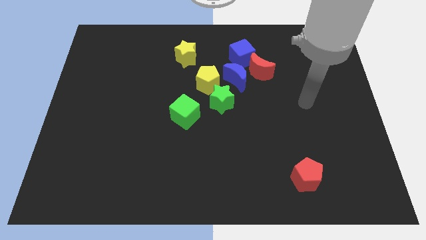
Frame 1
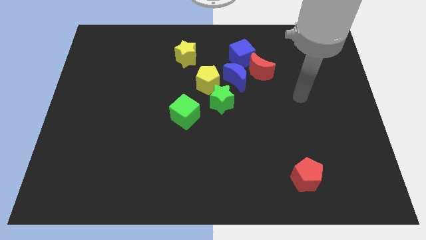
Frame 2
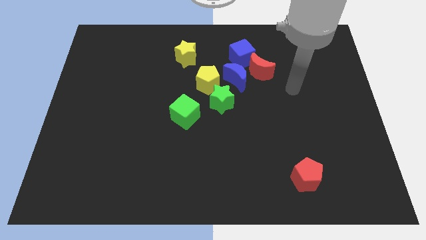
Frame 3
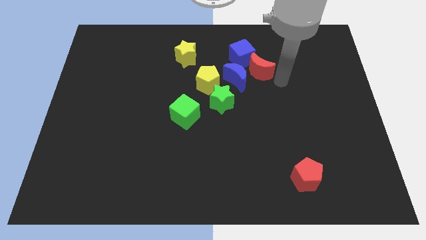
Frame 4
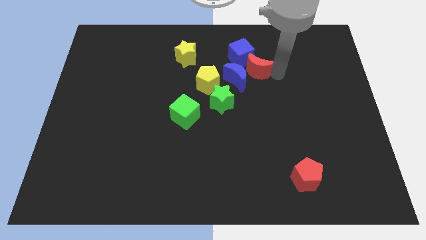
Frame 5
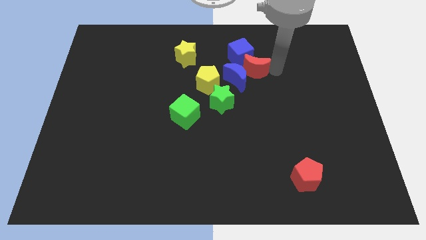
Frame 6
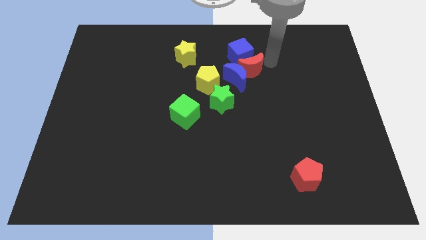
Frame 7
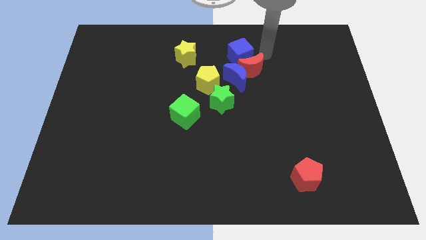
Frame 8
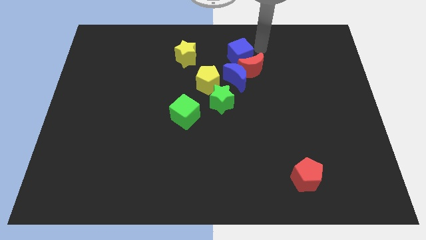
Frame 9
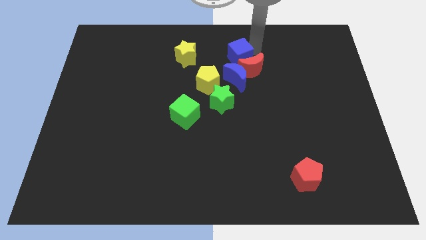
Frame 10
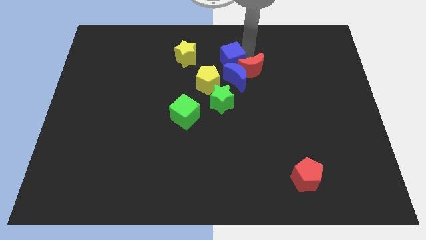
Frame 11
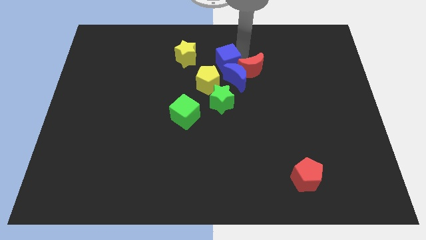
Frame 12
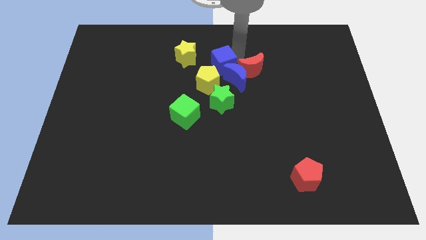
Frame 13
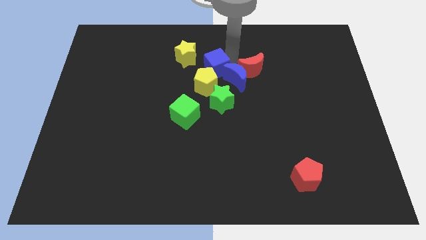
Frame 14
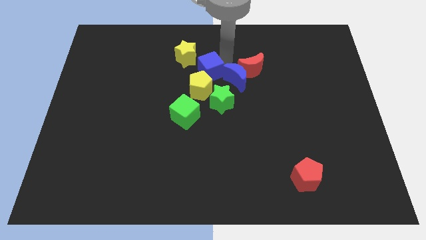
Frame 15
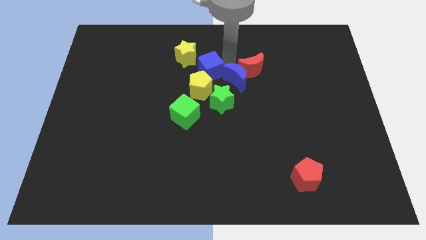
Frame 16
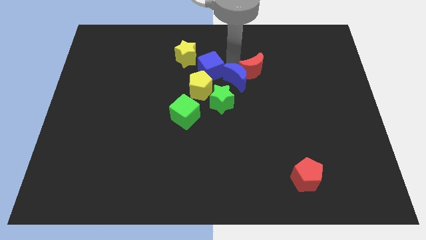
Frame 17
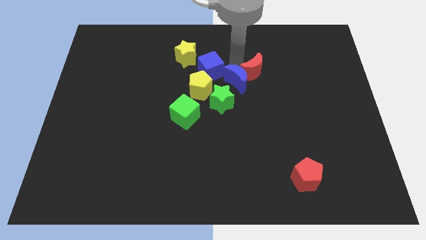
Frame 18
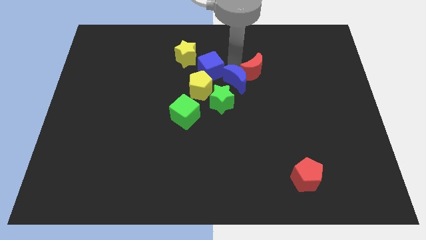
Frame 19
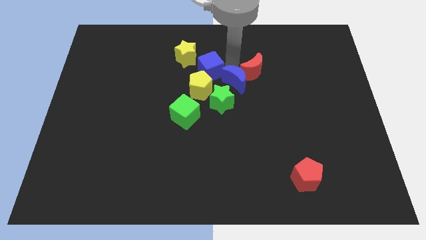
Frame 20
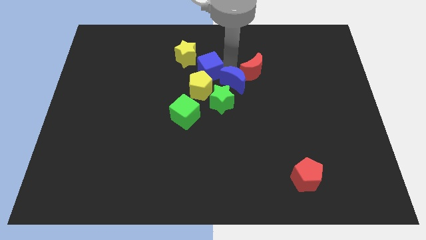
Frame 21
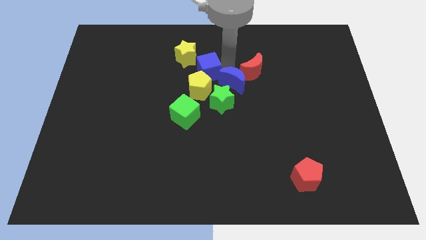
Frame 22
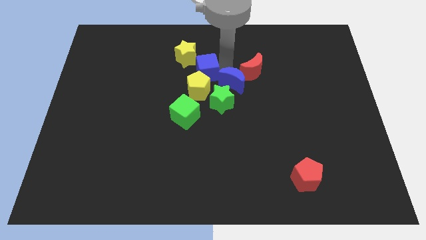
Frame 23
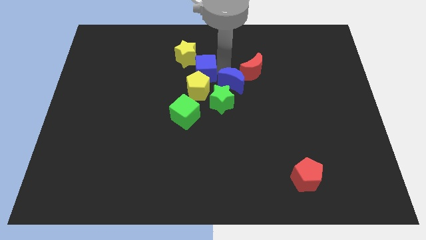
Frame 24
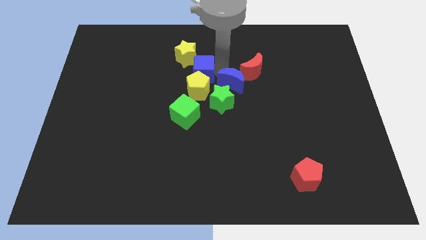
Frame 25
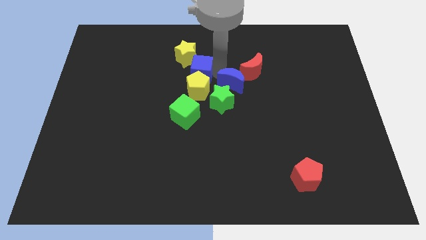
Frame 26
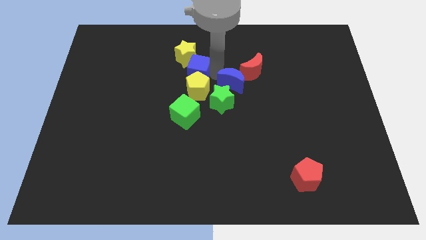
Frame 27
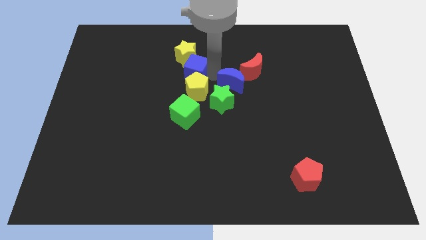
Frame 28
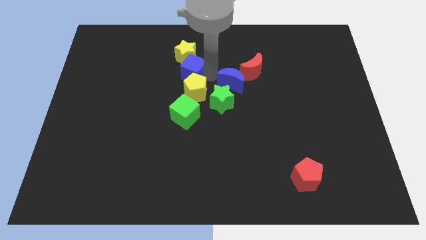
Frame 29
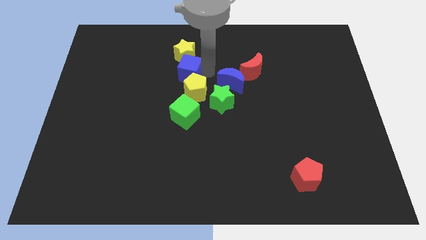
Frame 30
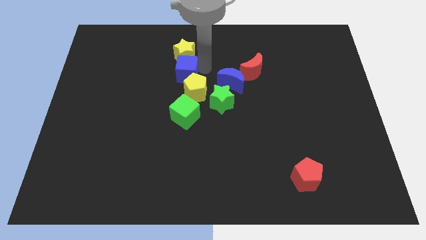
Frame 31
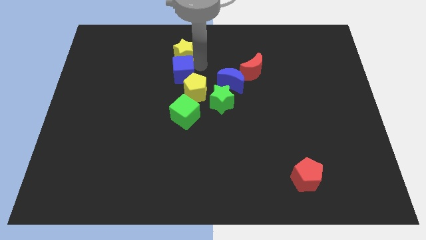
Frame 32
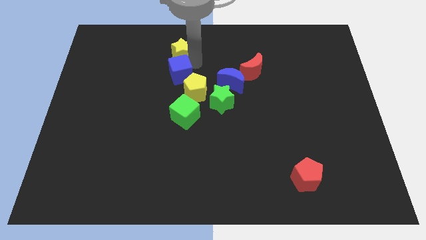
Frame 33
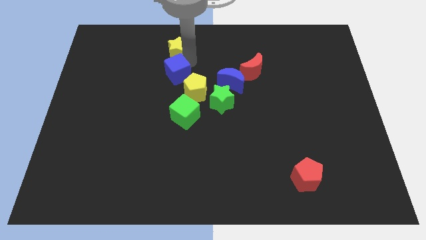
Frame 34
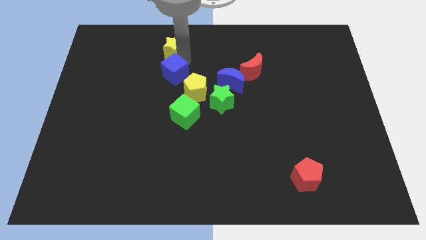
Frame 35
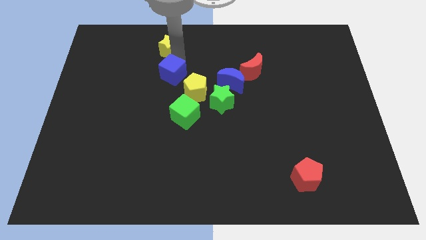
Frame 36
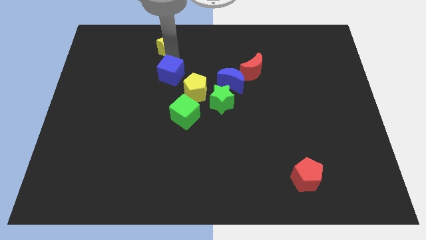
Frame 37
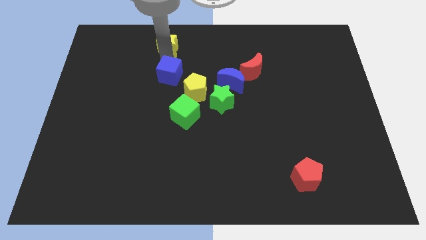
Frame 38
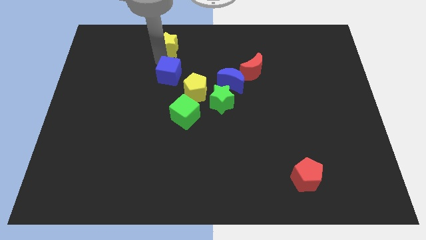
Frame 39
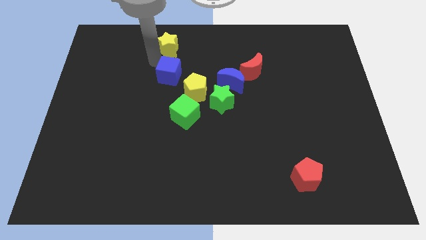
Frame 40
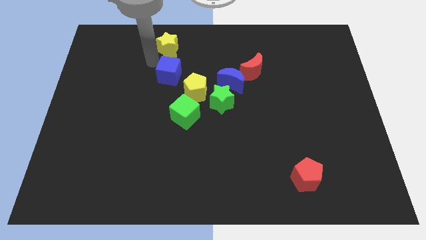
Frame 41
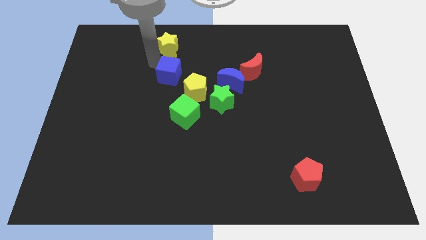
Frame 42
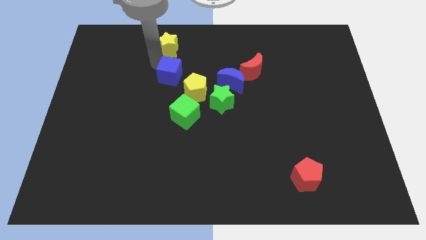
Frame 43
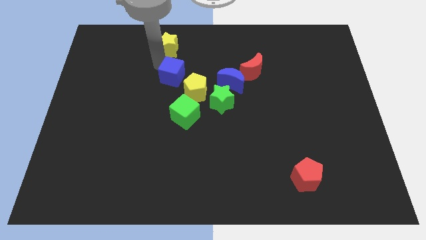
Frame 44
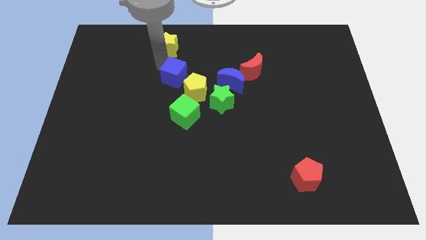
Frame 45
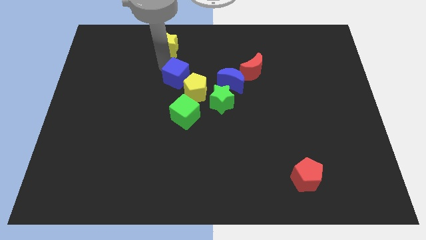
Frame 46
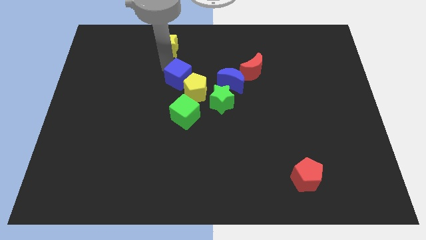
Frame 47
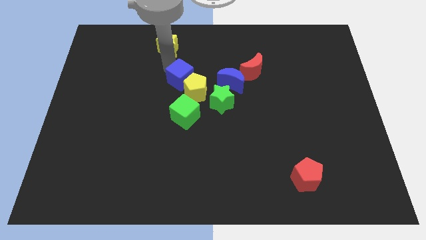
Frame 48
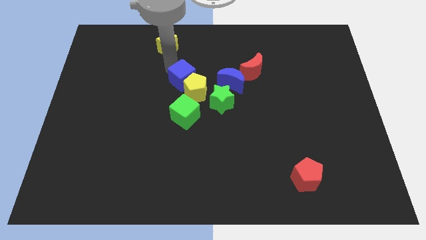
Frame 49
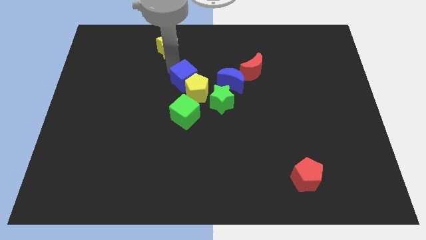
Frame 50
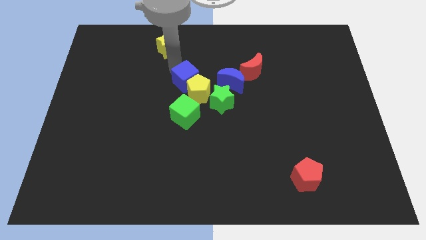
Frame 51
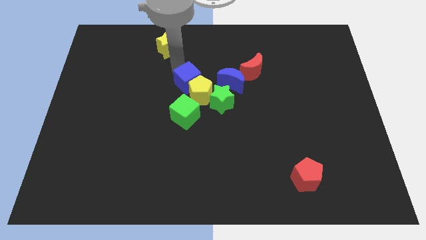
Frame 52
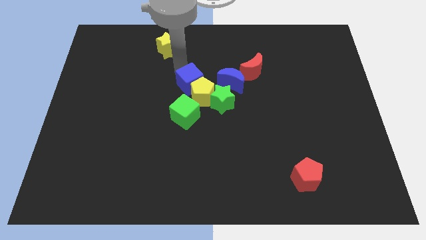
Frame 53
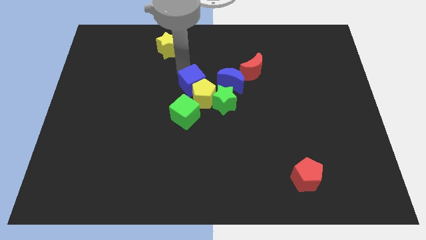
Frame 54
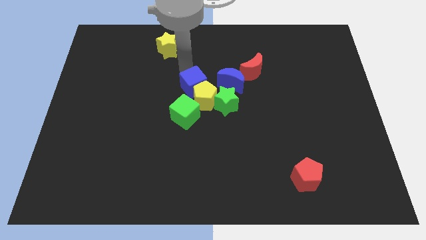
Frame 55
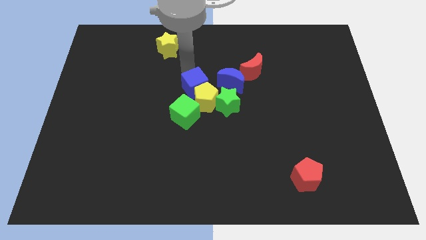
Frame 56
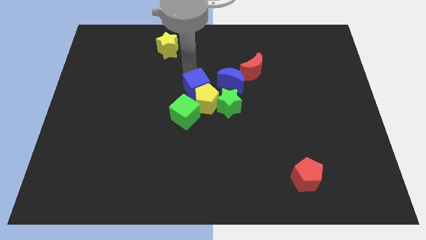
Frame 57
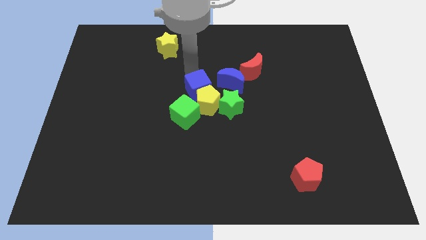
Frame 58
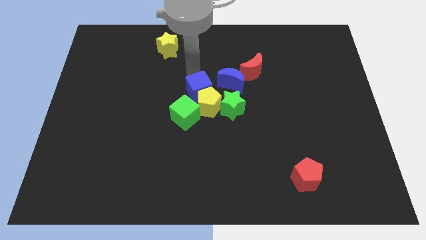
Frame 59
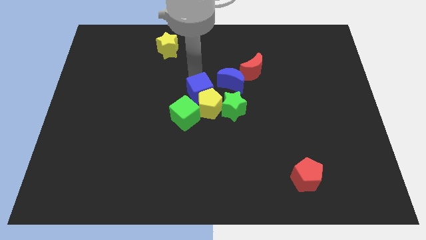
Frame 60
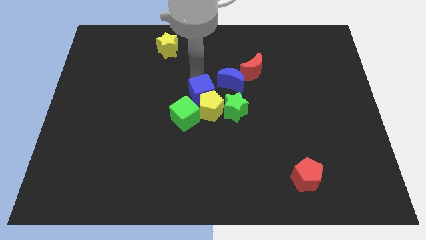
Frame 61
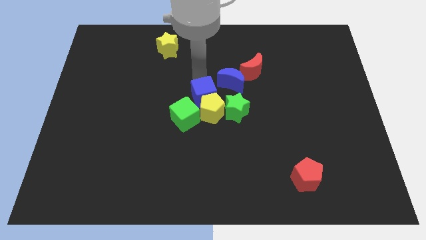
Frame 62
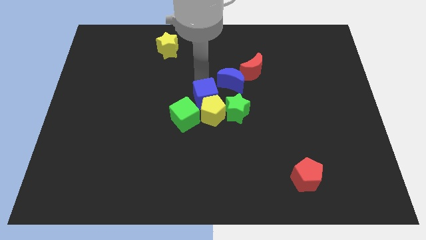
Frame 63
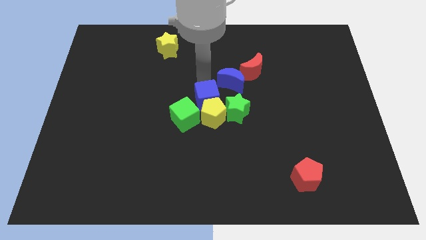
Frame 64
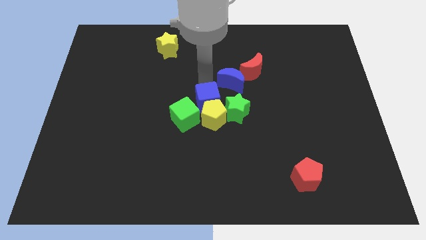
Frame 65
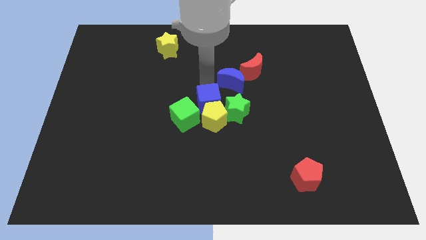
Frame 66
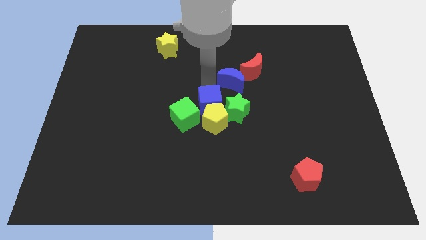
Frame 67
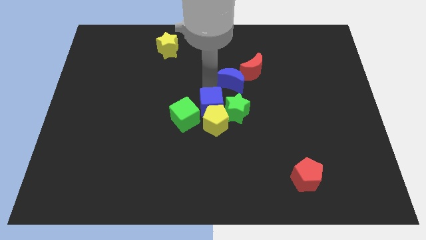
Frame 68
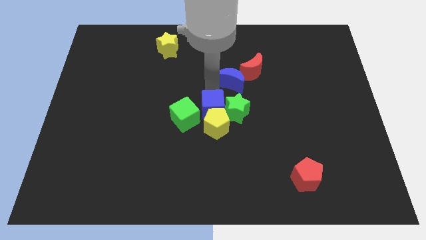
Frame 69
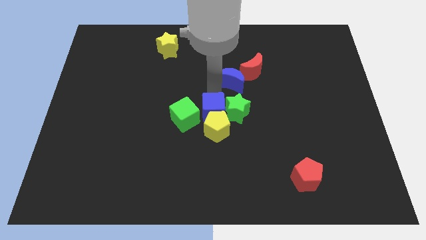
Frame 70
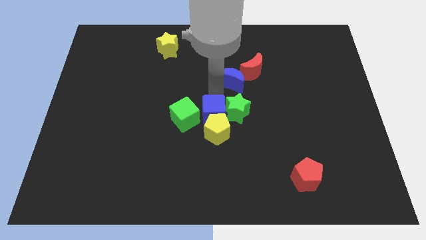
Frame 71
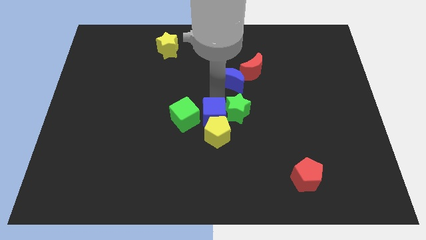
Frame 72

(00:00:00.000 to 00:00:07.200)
put the blue cube diagonally down and to the right of the green cube
